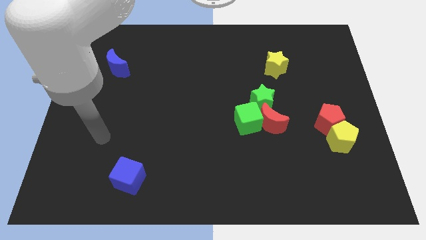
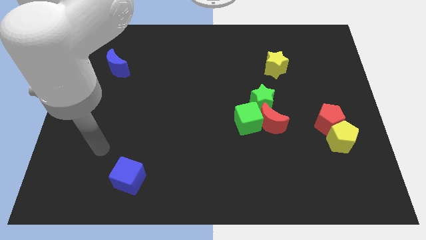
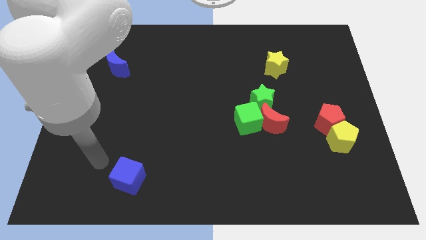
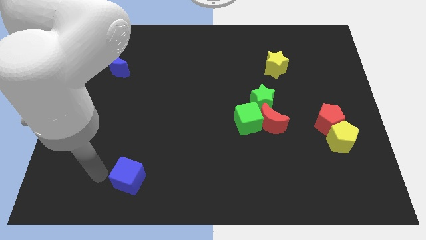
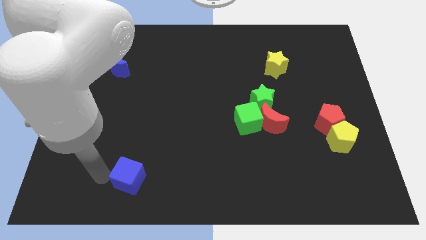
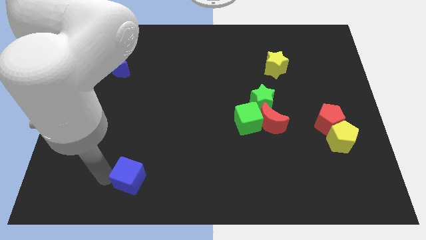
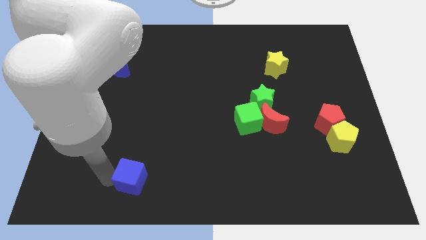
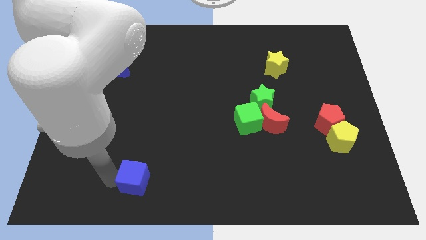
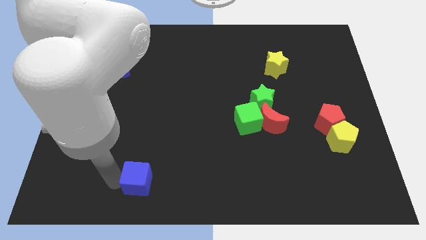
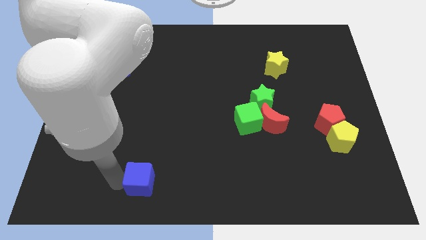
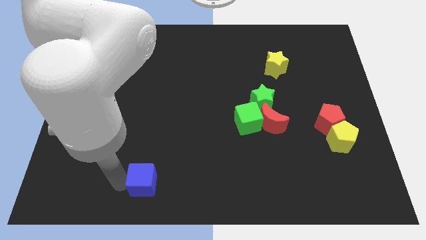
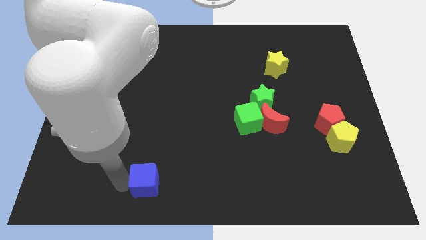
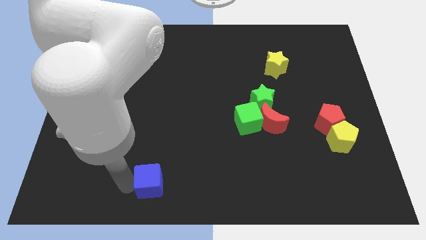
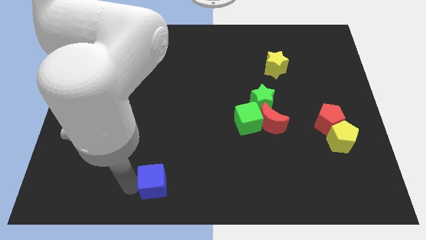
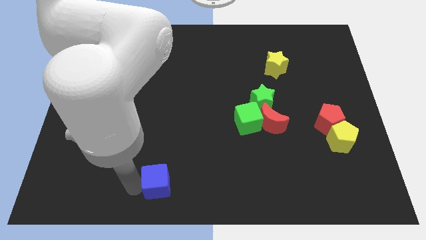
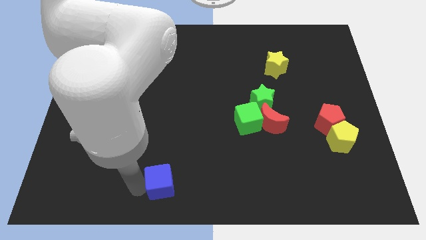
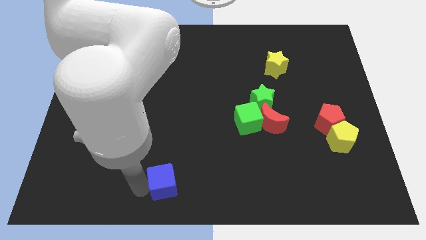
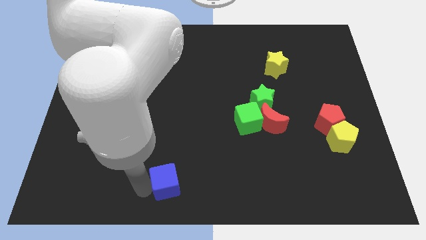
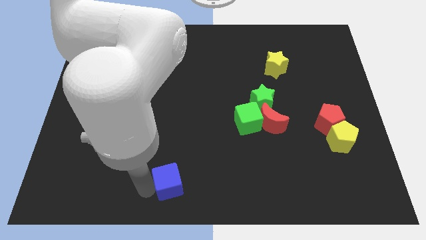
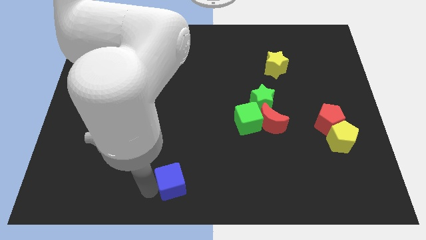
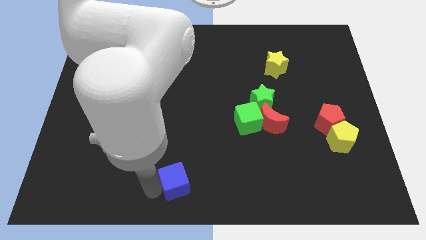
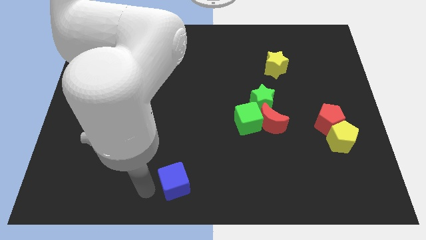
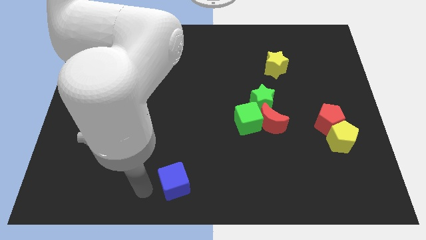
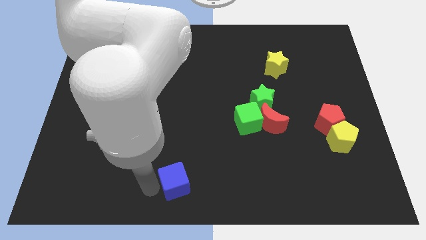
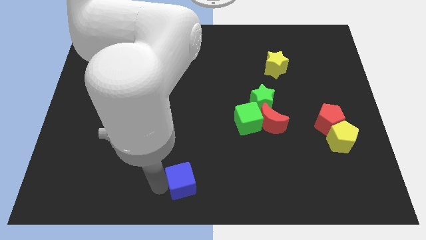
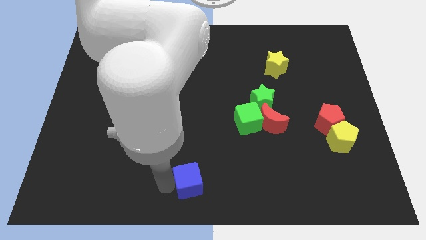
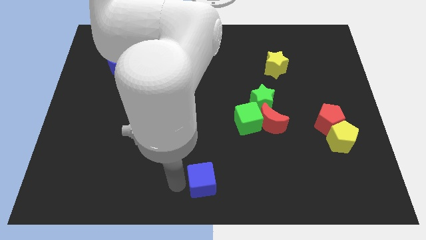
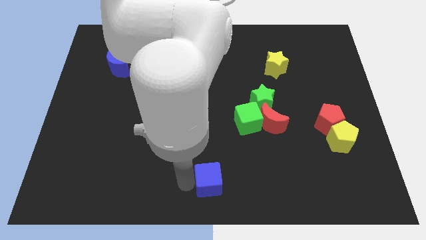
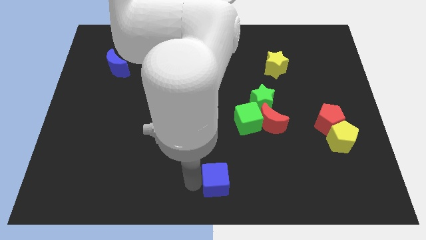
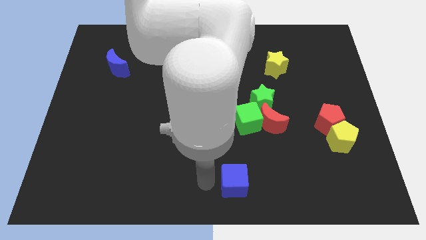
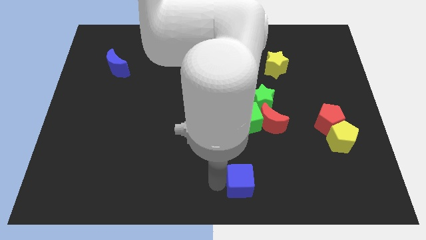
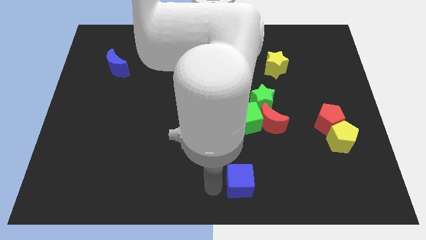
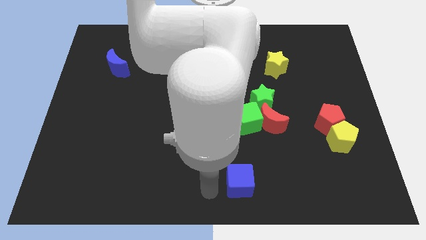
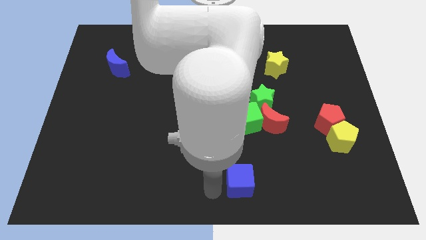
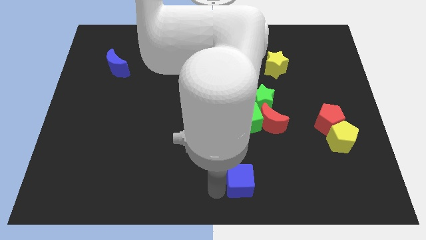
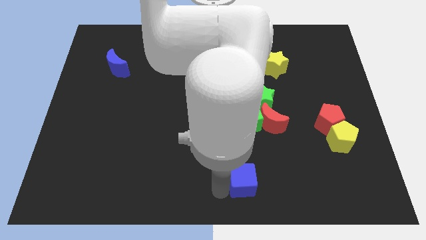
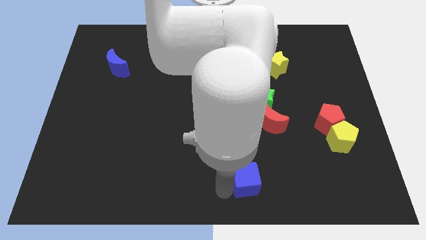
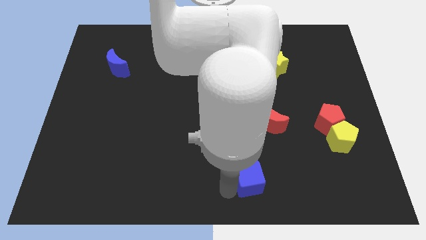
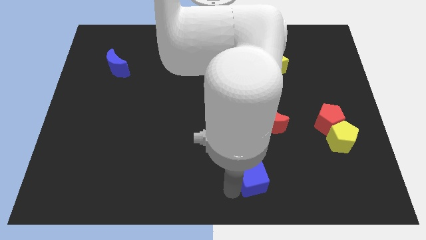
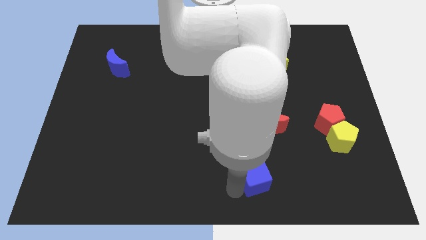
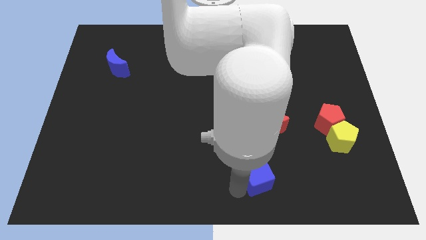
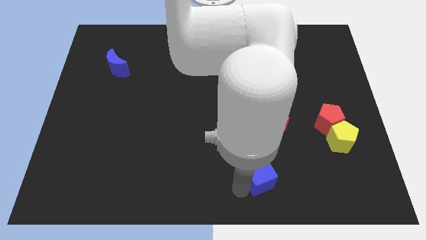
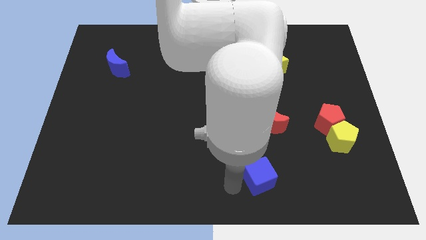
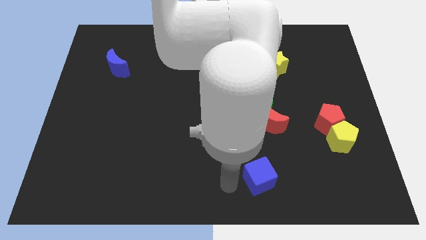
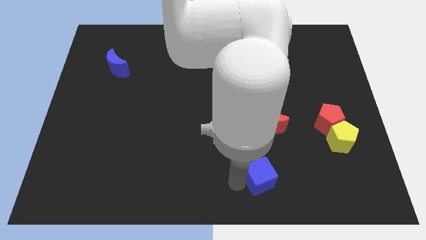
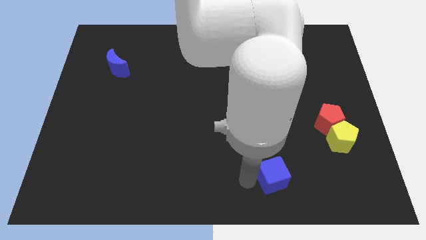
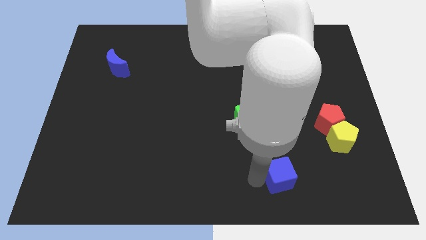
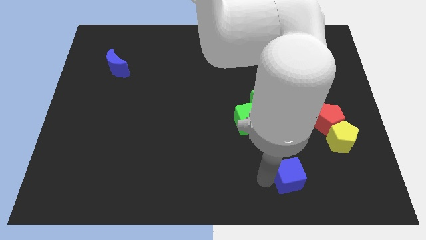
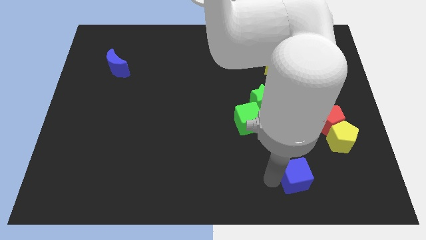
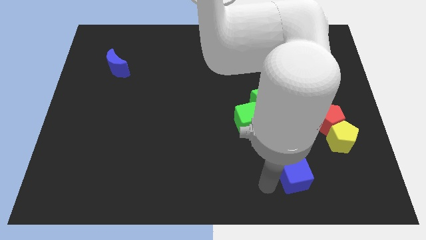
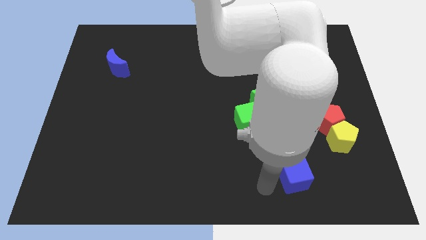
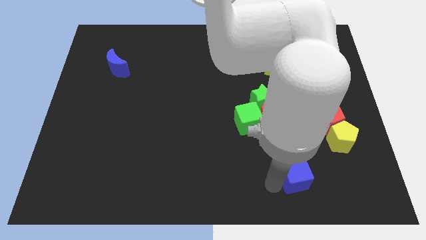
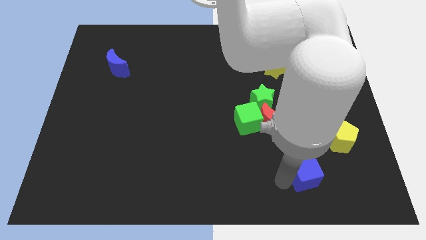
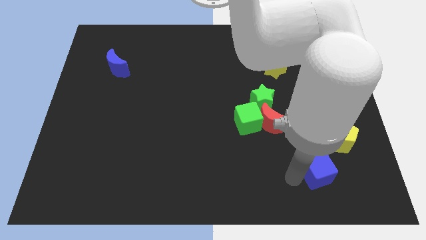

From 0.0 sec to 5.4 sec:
slide the blue cube below the red pentagon

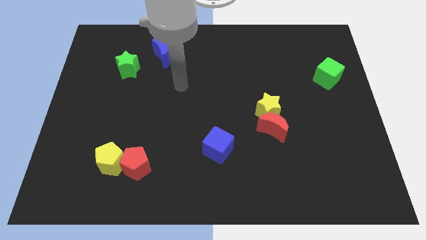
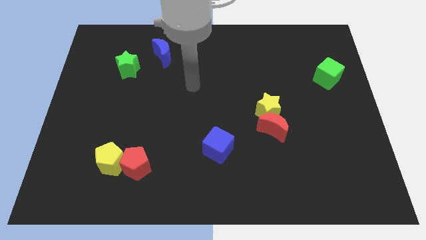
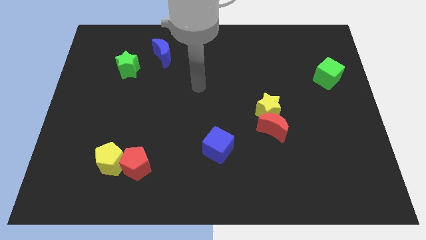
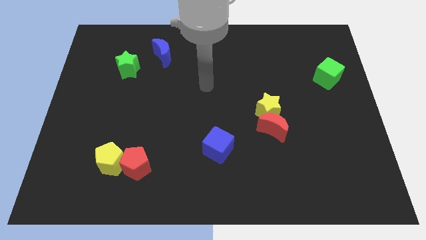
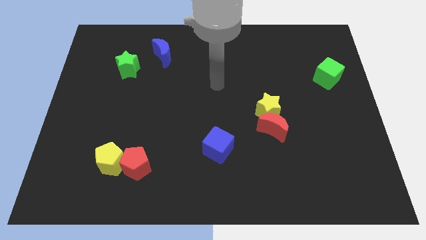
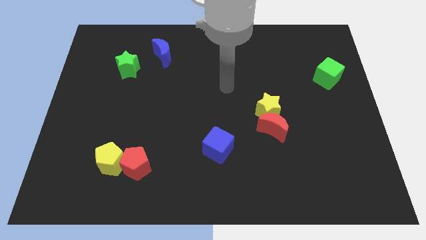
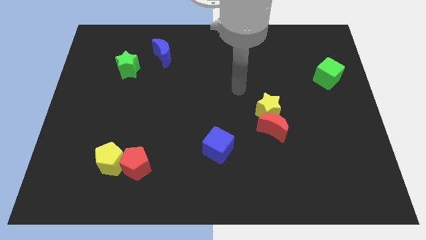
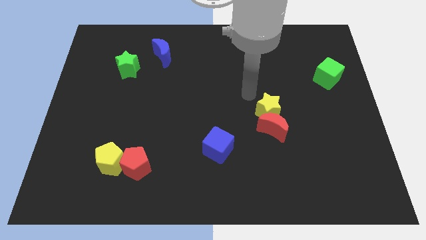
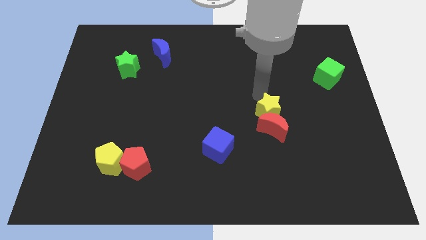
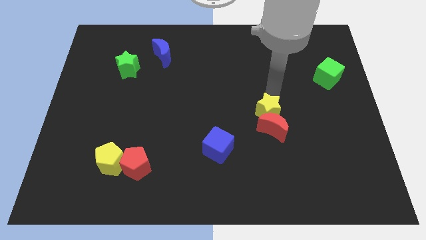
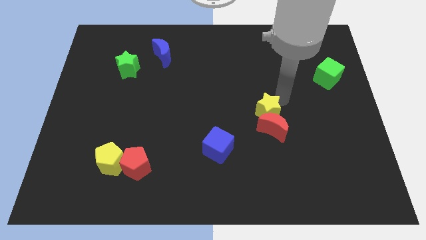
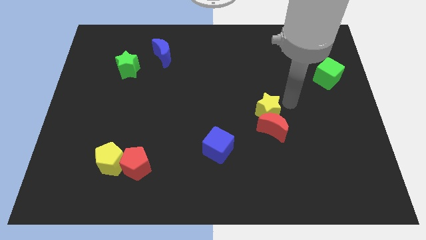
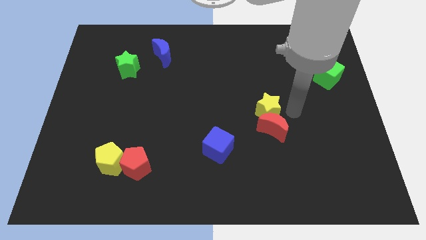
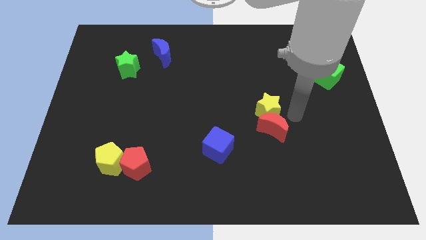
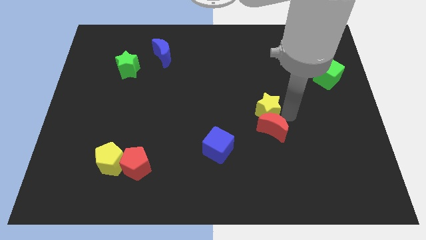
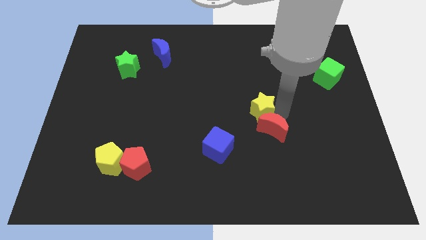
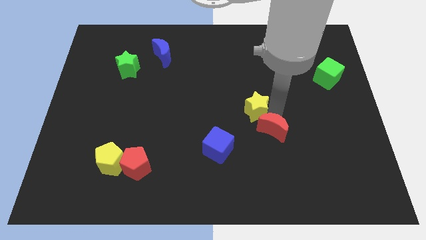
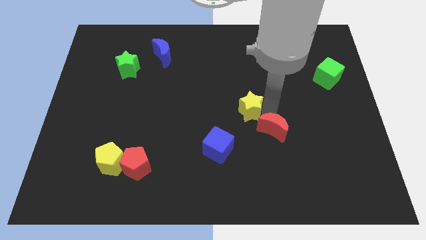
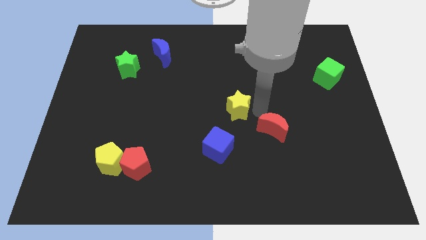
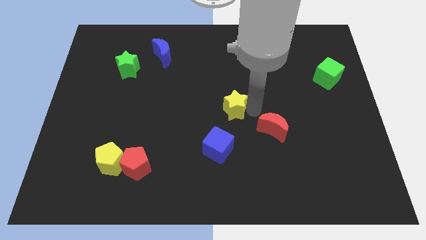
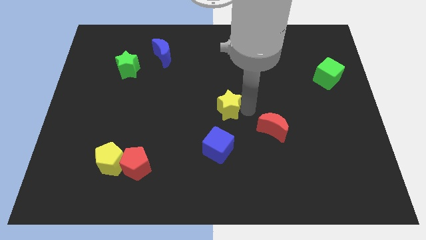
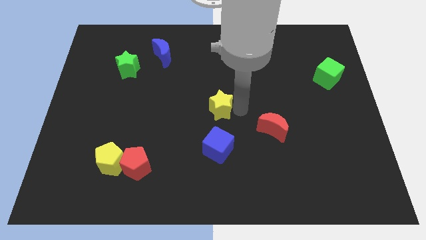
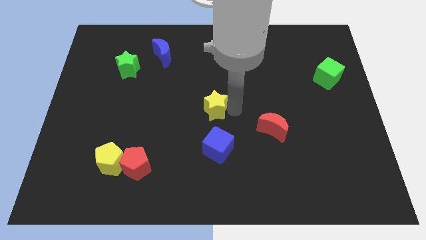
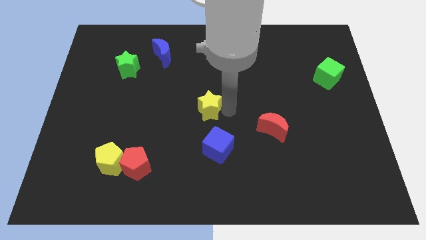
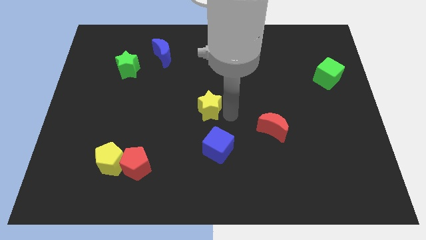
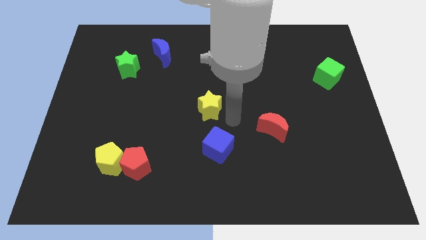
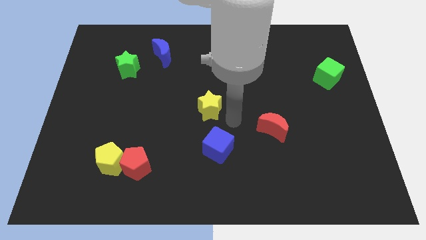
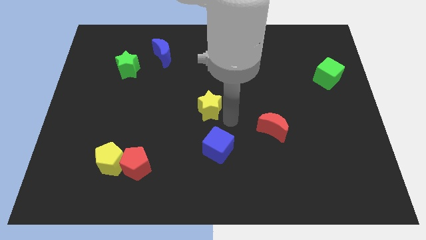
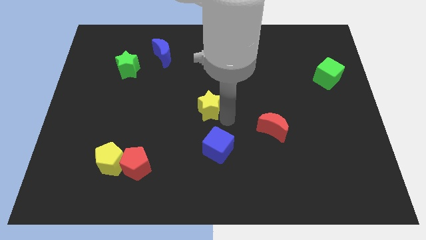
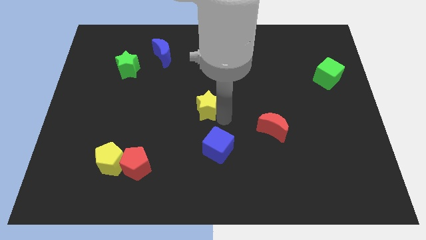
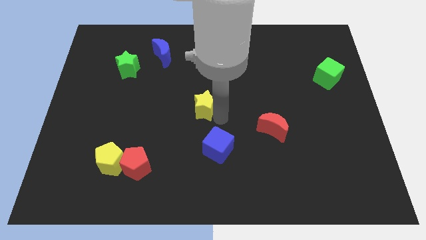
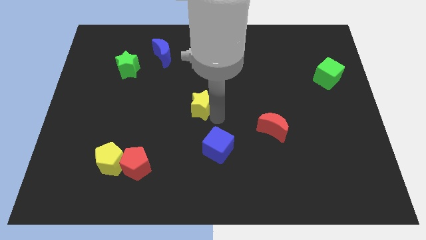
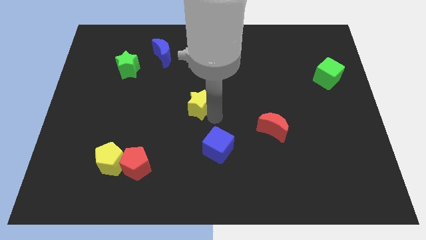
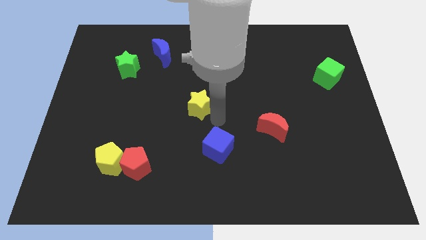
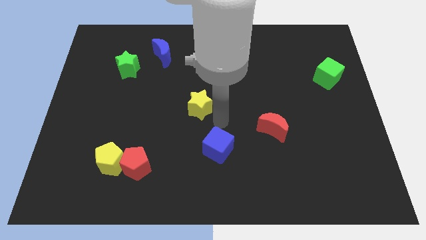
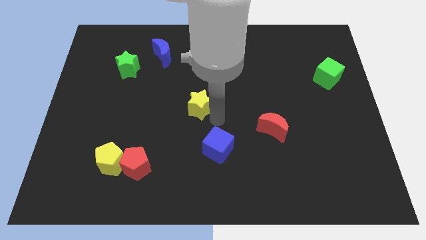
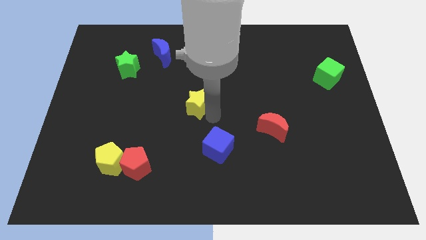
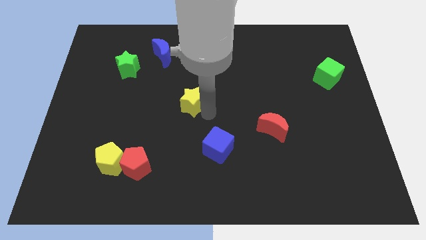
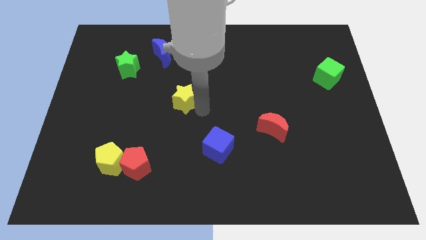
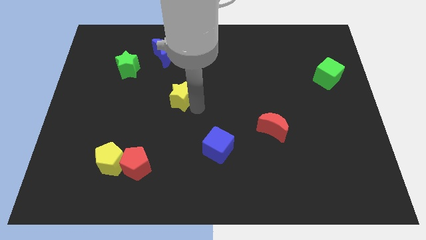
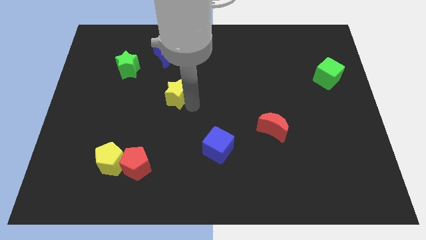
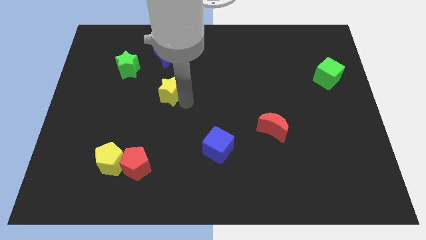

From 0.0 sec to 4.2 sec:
put the yellow star to the bottom of the blue moon
